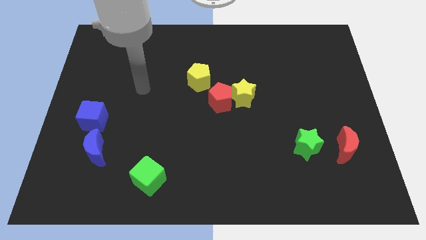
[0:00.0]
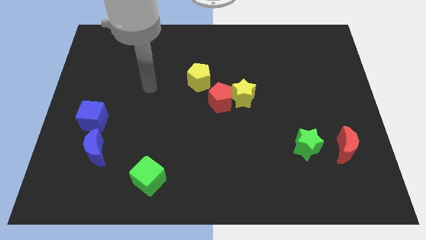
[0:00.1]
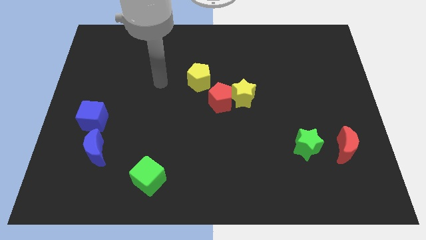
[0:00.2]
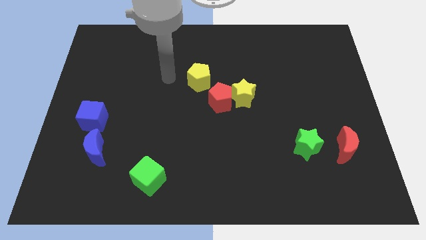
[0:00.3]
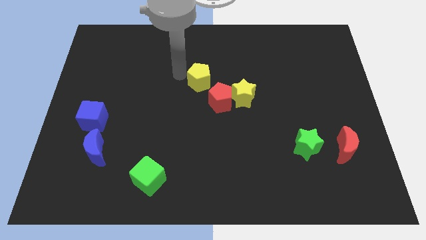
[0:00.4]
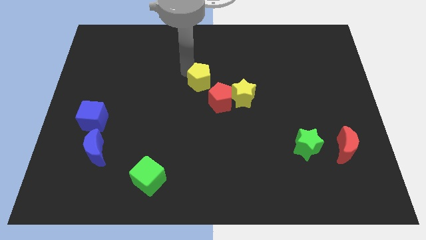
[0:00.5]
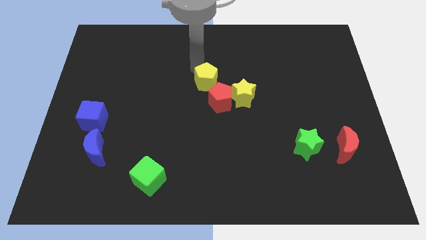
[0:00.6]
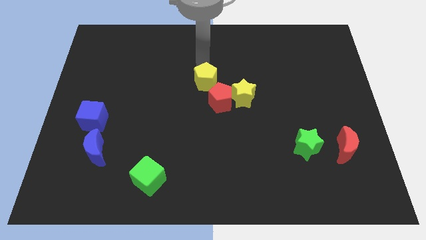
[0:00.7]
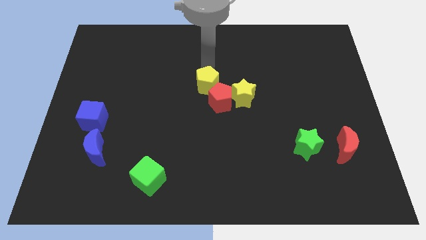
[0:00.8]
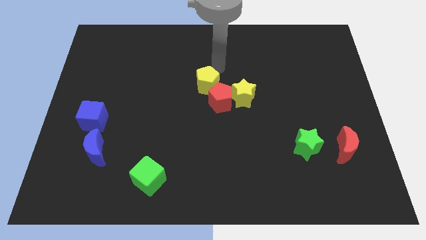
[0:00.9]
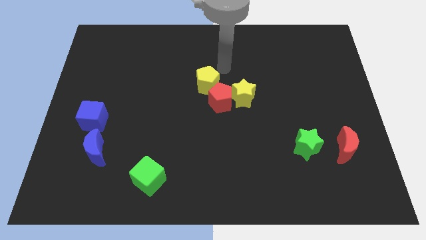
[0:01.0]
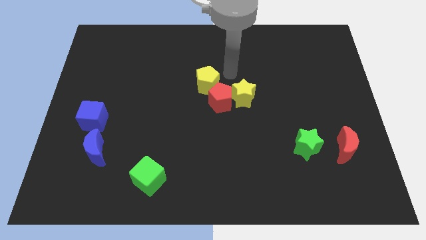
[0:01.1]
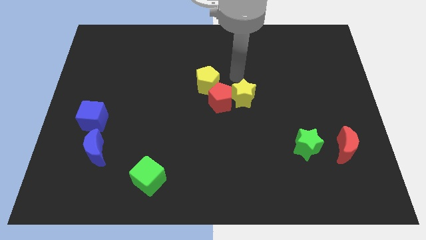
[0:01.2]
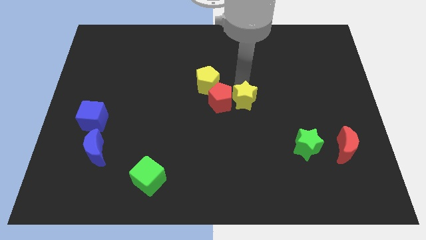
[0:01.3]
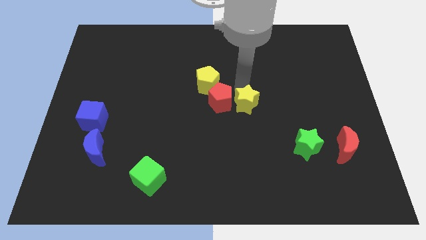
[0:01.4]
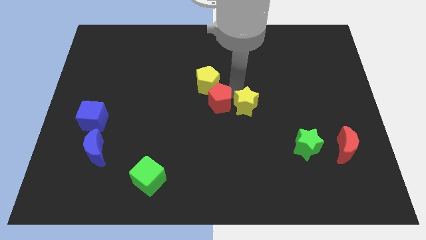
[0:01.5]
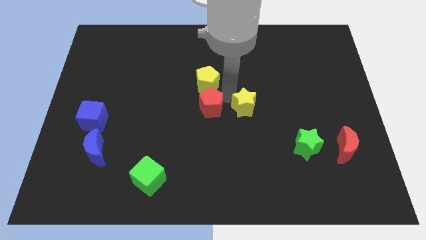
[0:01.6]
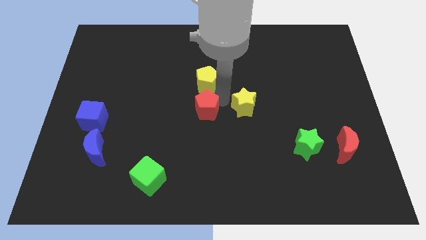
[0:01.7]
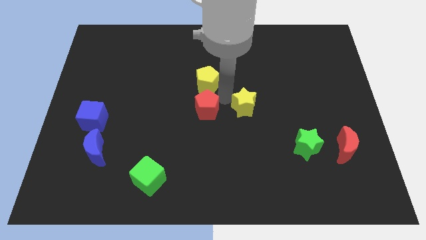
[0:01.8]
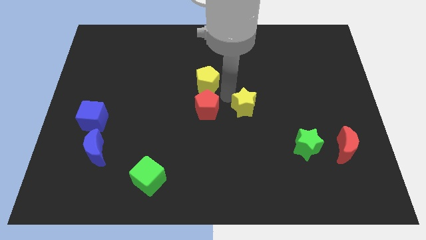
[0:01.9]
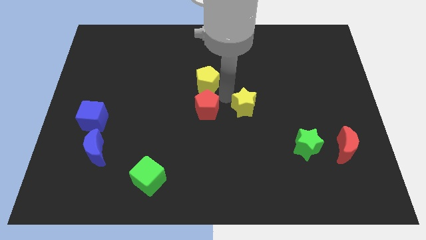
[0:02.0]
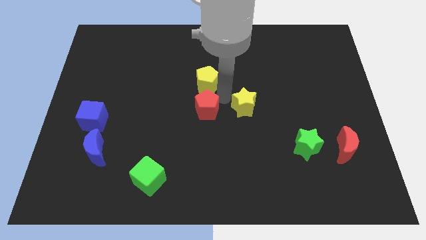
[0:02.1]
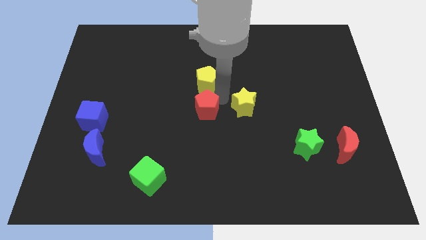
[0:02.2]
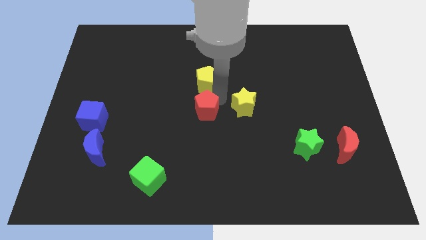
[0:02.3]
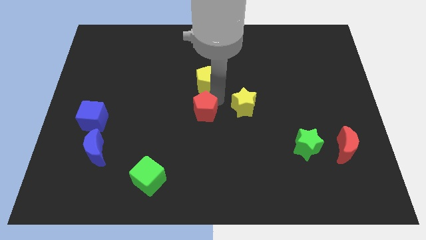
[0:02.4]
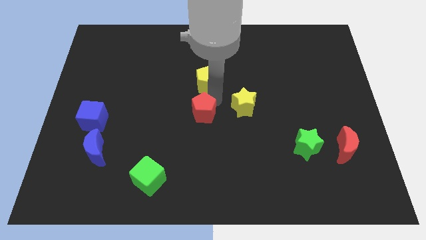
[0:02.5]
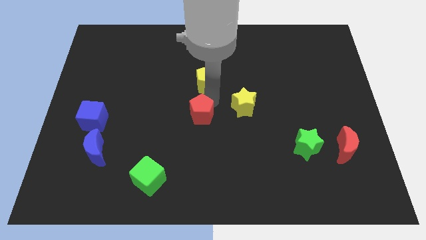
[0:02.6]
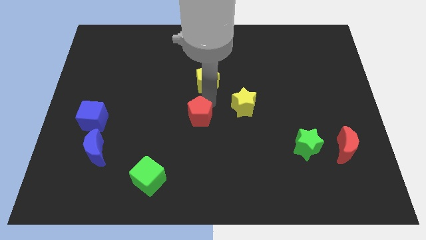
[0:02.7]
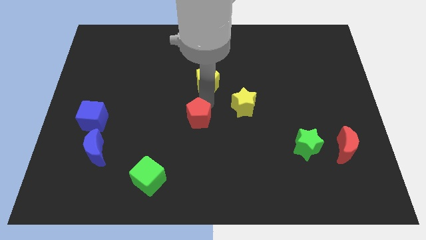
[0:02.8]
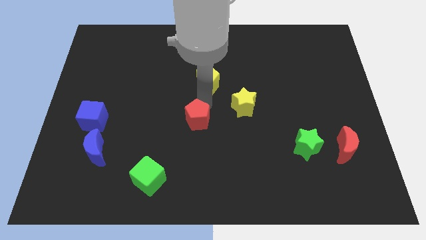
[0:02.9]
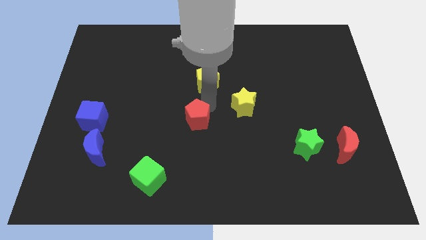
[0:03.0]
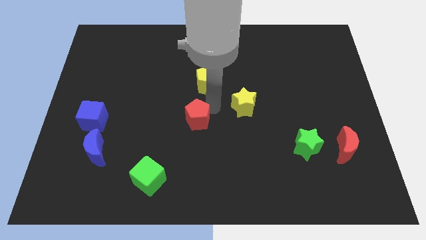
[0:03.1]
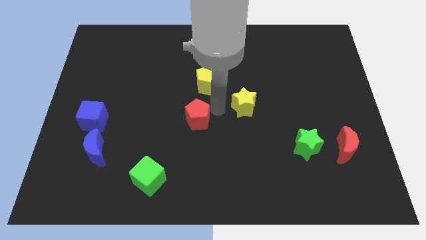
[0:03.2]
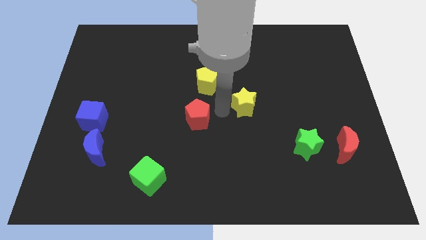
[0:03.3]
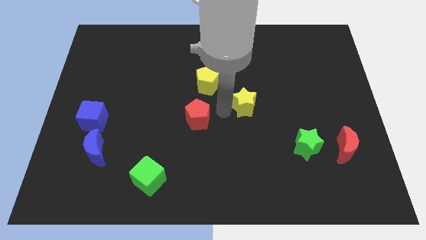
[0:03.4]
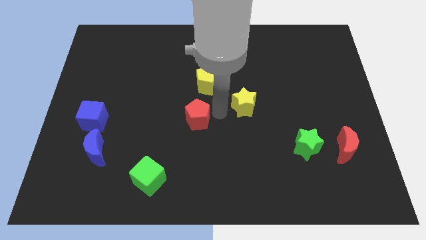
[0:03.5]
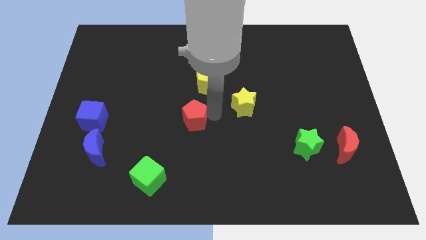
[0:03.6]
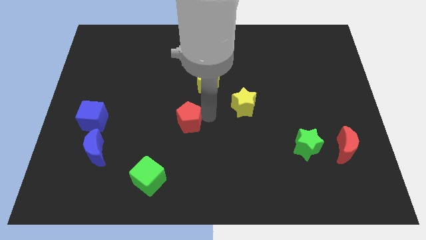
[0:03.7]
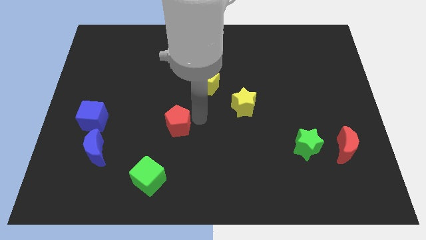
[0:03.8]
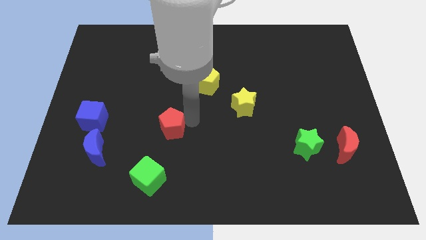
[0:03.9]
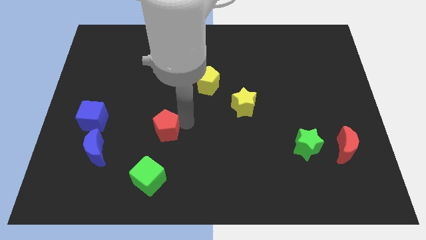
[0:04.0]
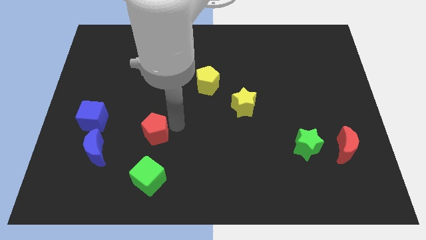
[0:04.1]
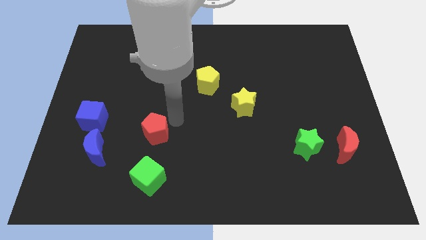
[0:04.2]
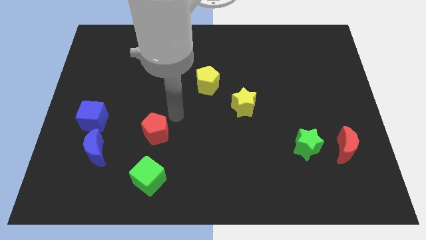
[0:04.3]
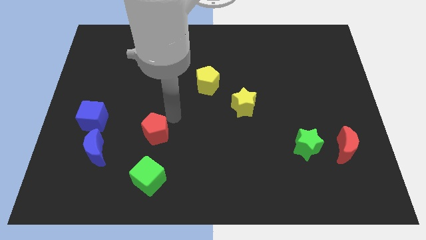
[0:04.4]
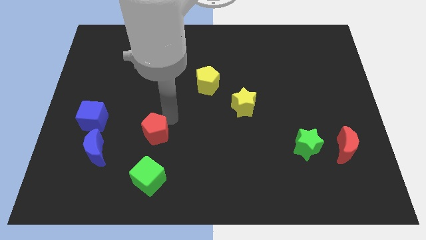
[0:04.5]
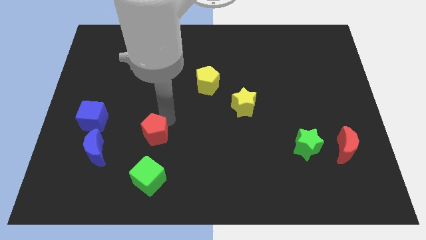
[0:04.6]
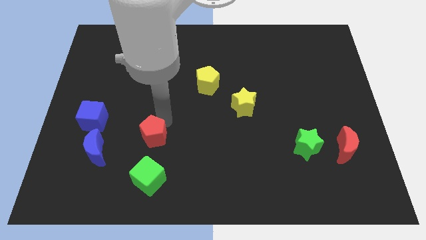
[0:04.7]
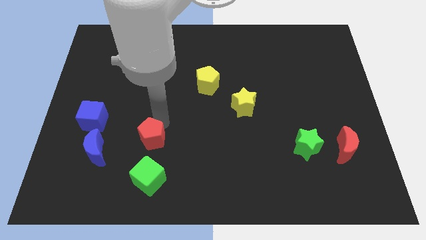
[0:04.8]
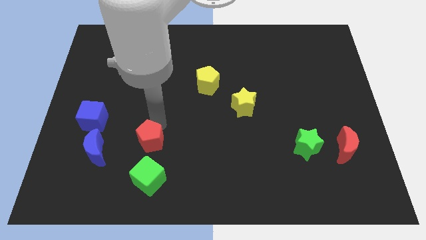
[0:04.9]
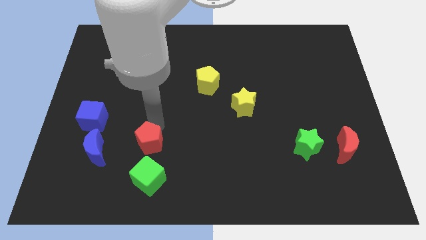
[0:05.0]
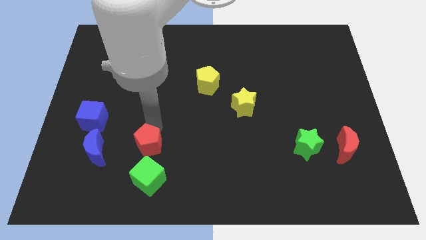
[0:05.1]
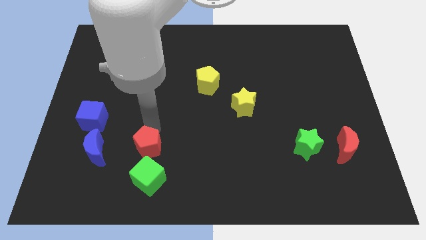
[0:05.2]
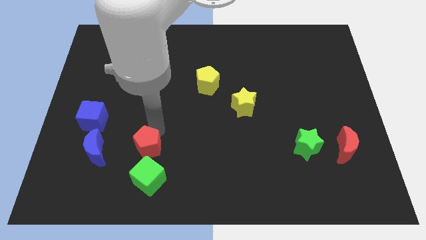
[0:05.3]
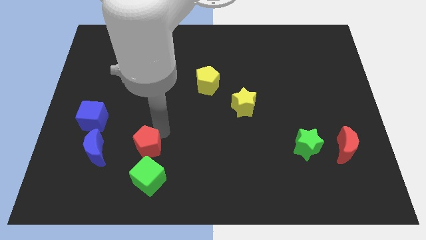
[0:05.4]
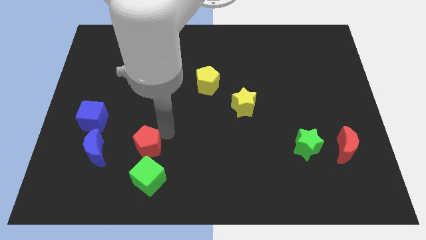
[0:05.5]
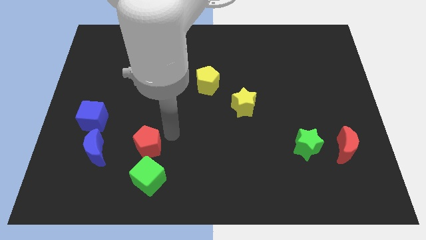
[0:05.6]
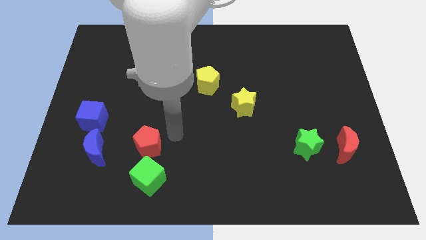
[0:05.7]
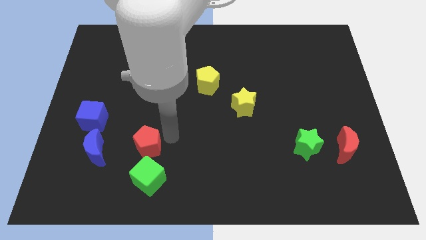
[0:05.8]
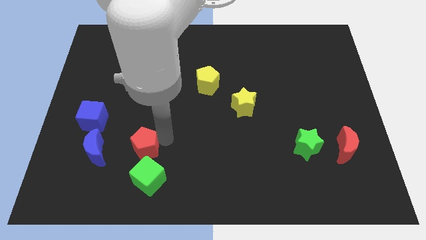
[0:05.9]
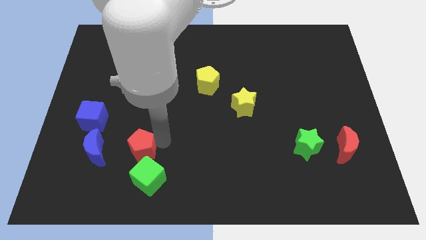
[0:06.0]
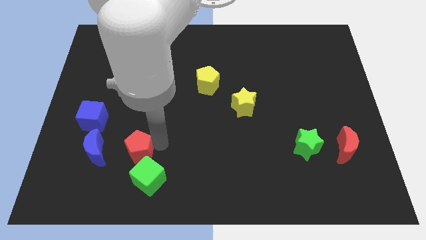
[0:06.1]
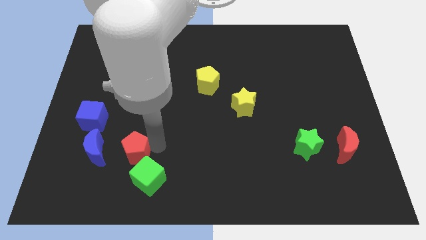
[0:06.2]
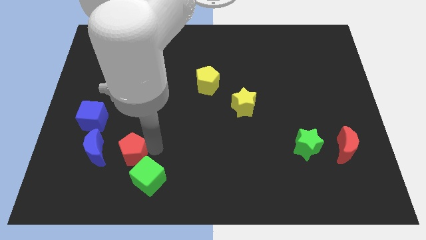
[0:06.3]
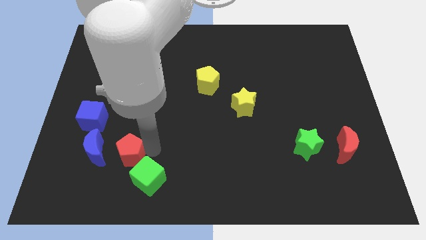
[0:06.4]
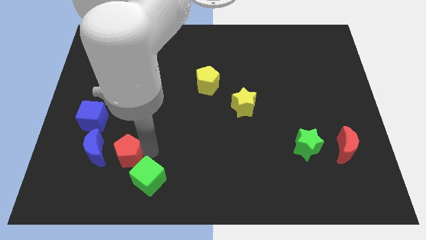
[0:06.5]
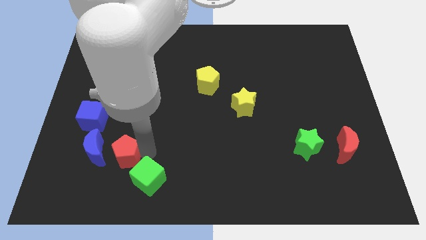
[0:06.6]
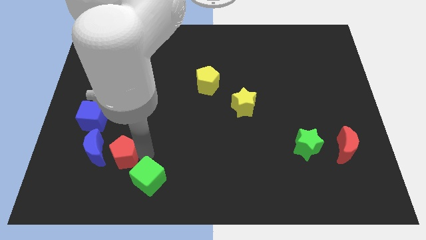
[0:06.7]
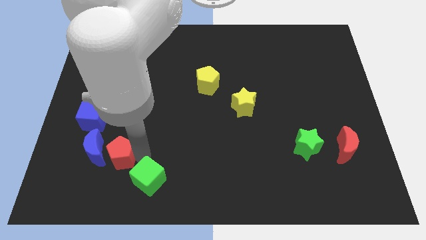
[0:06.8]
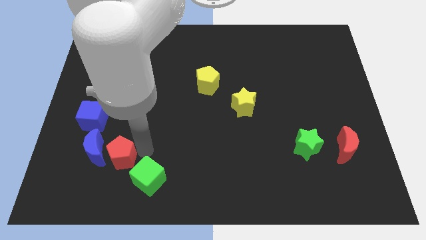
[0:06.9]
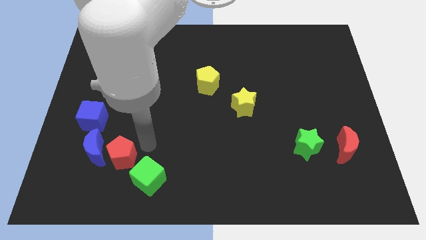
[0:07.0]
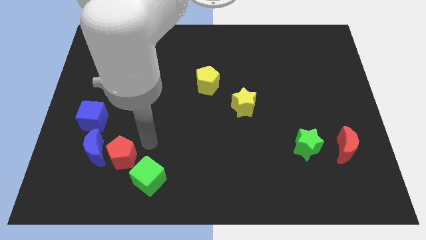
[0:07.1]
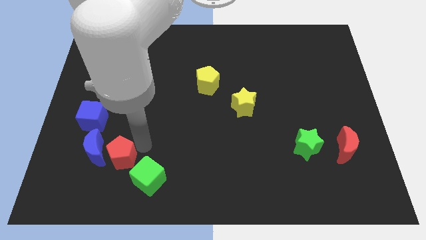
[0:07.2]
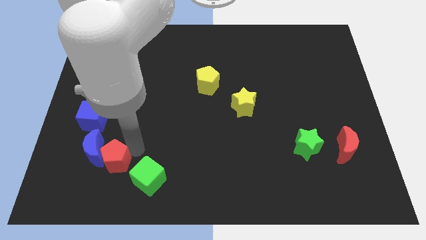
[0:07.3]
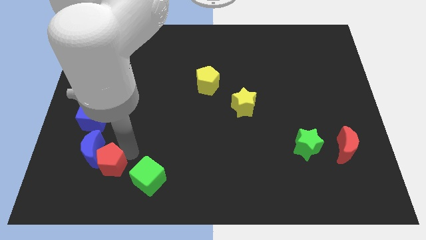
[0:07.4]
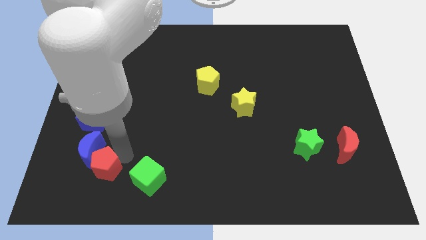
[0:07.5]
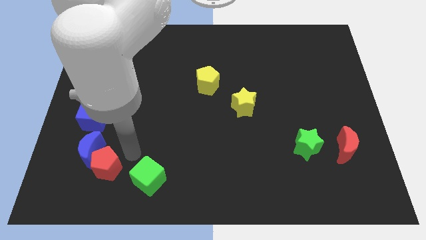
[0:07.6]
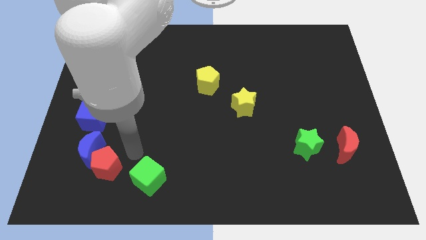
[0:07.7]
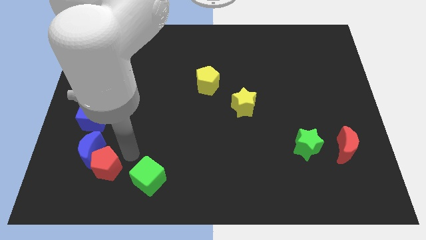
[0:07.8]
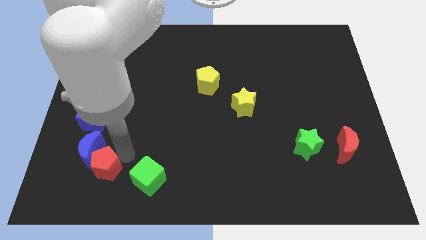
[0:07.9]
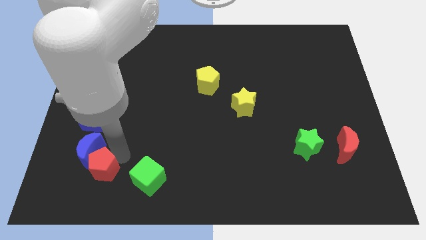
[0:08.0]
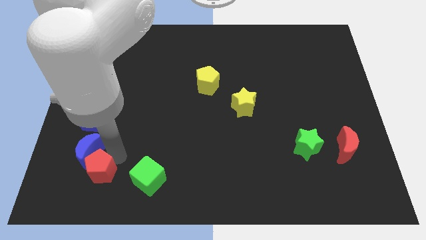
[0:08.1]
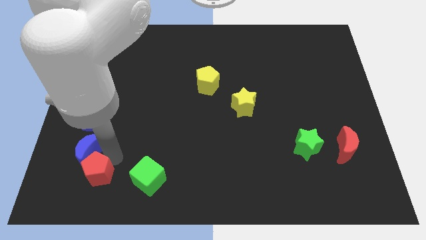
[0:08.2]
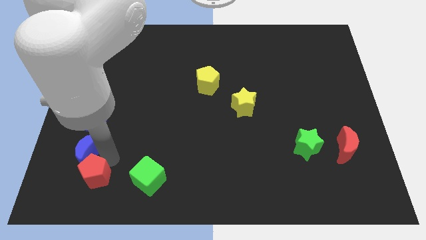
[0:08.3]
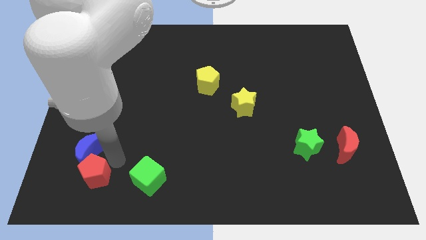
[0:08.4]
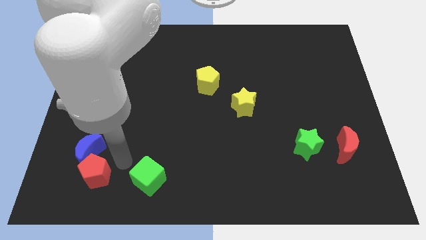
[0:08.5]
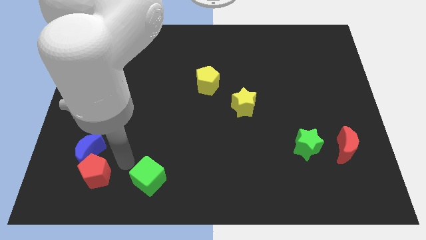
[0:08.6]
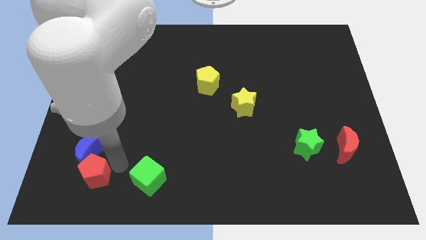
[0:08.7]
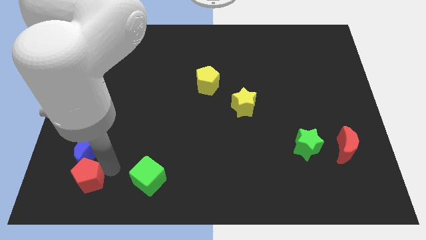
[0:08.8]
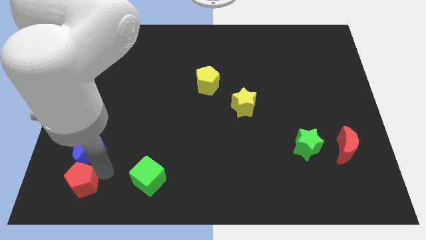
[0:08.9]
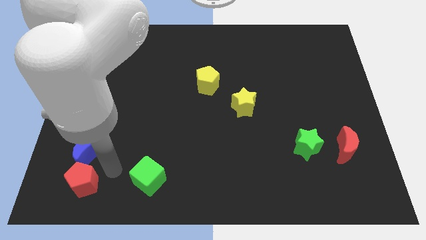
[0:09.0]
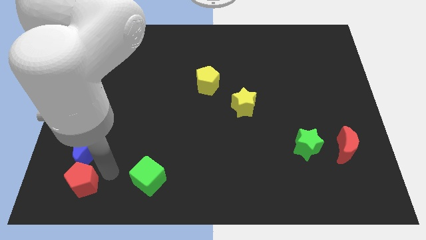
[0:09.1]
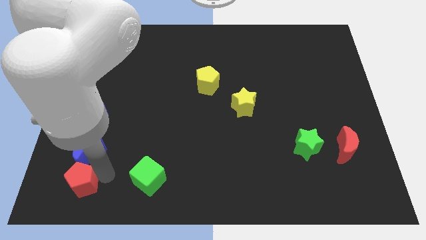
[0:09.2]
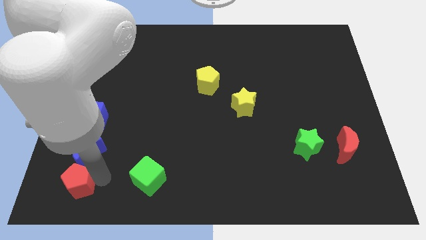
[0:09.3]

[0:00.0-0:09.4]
move the red pentagon to the bottom left of the board
